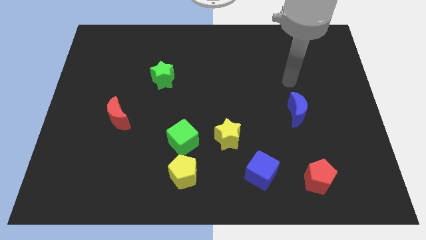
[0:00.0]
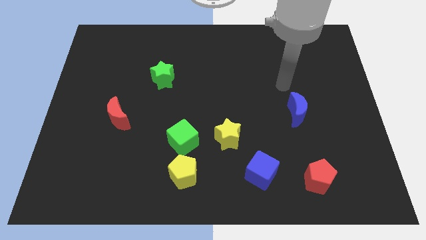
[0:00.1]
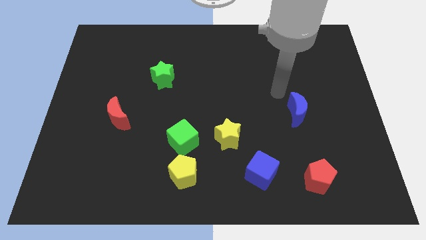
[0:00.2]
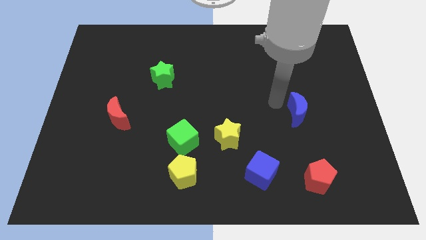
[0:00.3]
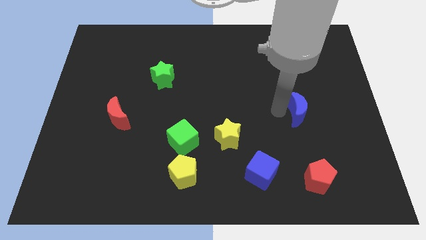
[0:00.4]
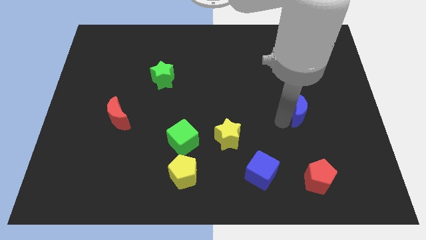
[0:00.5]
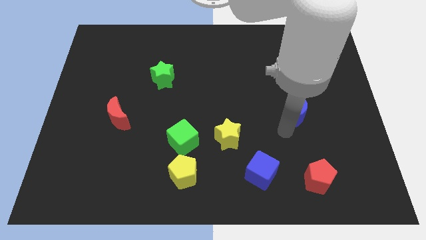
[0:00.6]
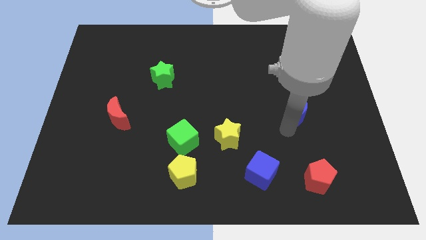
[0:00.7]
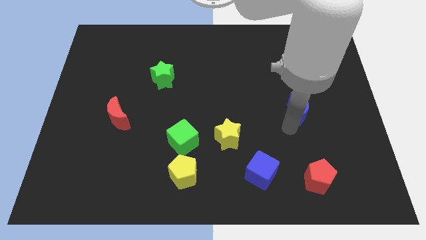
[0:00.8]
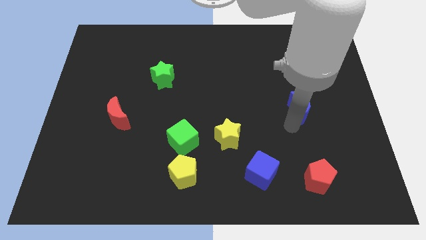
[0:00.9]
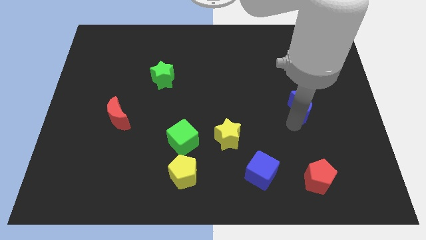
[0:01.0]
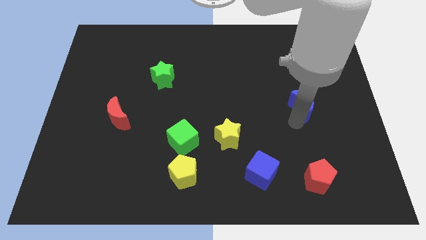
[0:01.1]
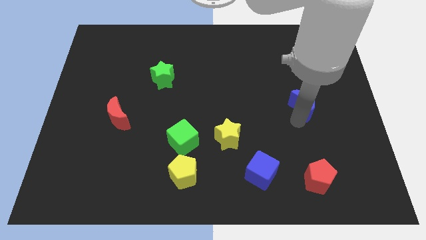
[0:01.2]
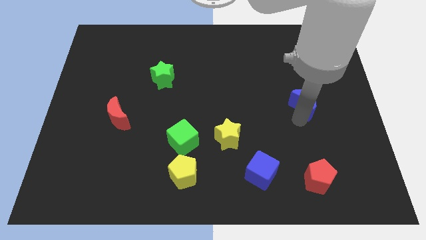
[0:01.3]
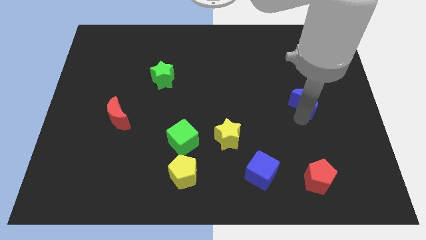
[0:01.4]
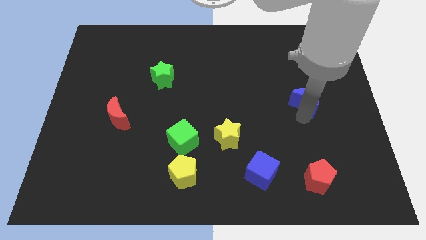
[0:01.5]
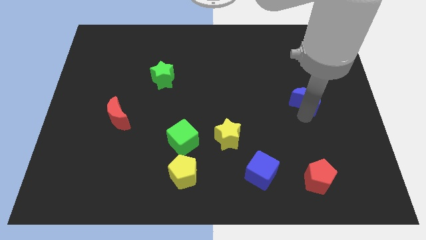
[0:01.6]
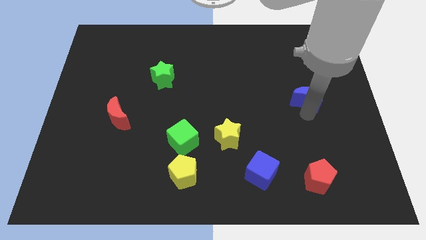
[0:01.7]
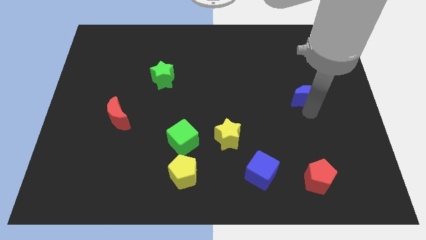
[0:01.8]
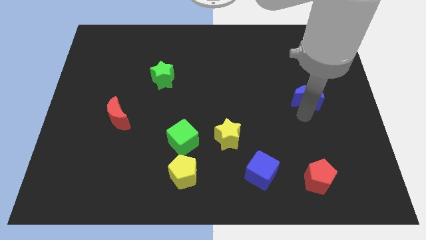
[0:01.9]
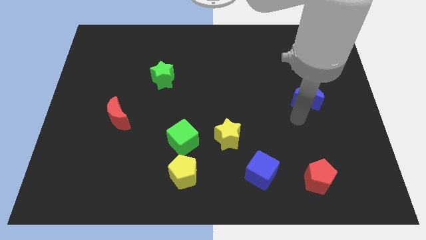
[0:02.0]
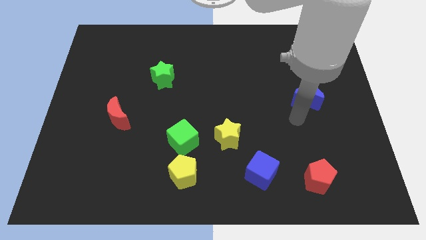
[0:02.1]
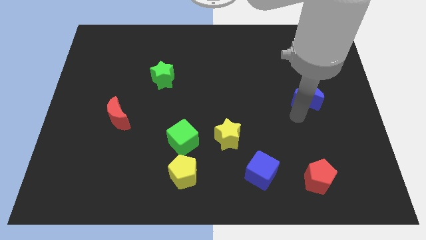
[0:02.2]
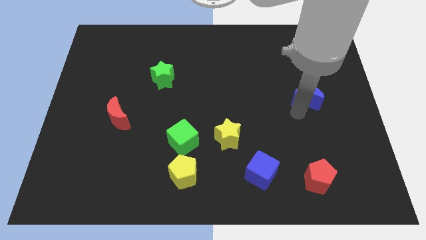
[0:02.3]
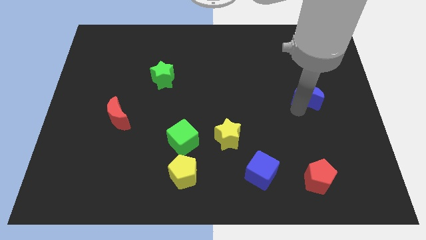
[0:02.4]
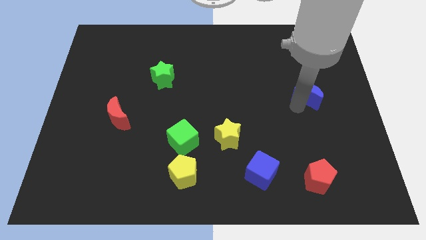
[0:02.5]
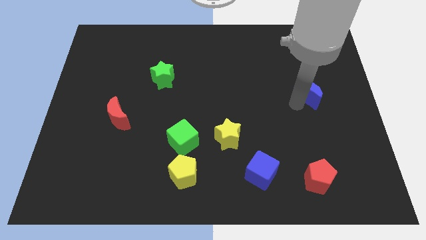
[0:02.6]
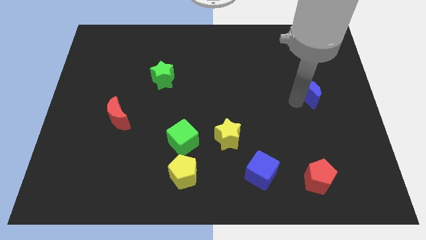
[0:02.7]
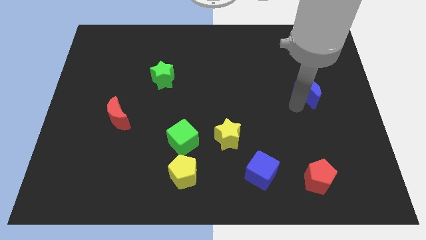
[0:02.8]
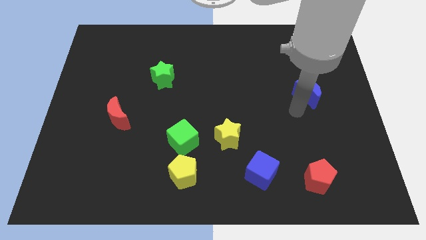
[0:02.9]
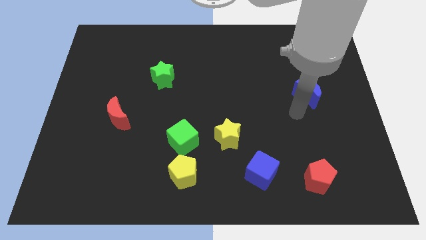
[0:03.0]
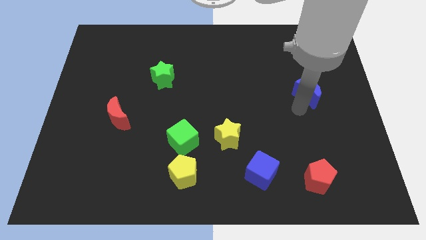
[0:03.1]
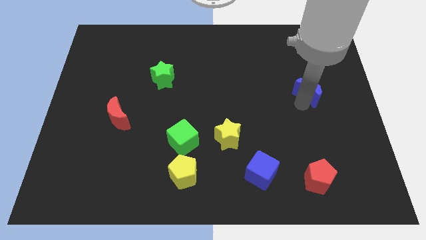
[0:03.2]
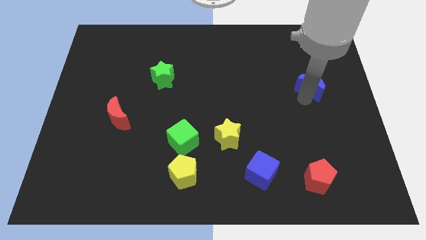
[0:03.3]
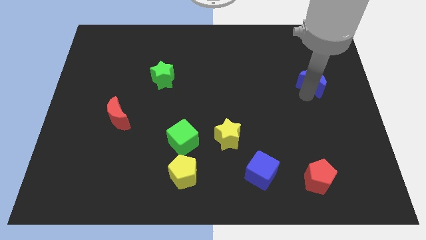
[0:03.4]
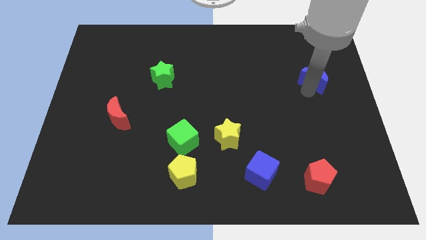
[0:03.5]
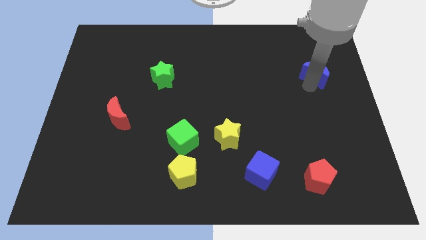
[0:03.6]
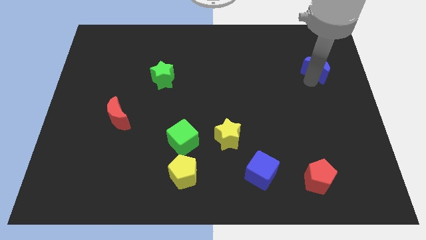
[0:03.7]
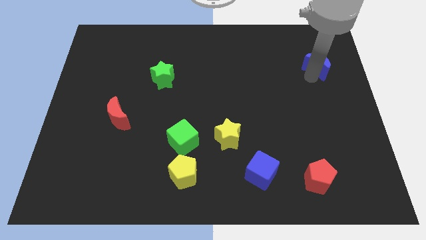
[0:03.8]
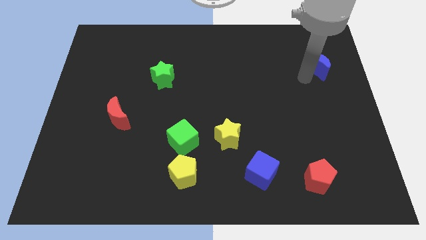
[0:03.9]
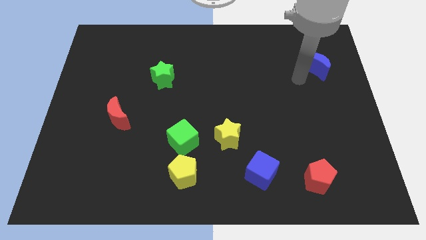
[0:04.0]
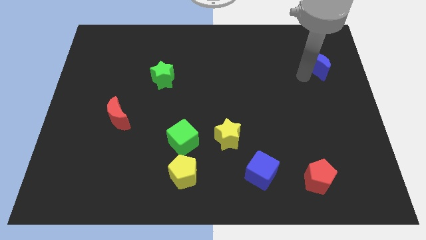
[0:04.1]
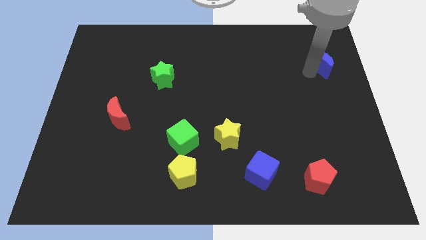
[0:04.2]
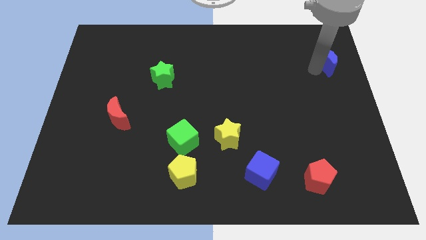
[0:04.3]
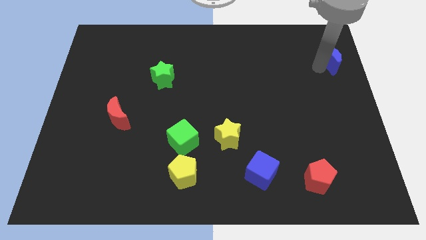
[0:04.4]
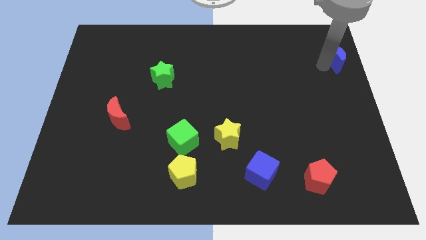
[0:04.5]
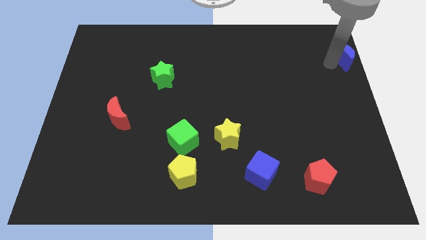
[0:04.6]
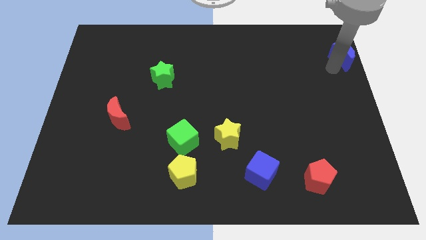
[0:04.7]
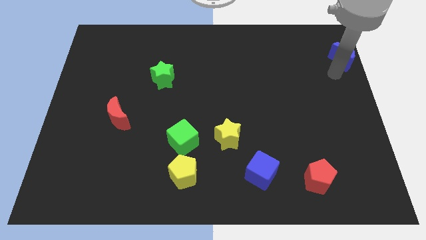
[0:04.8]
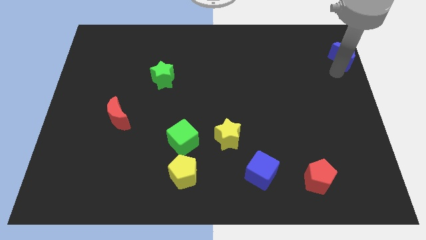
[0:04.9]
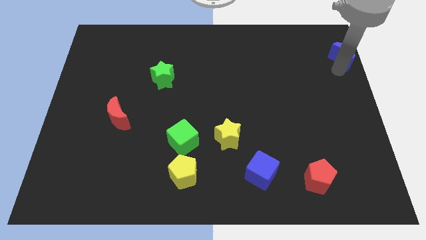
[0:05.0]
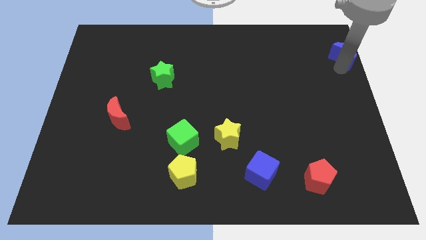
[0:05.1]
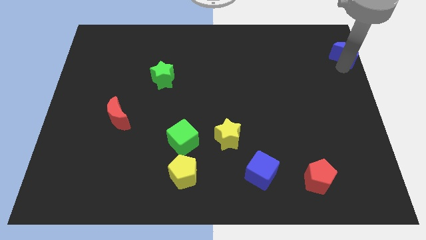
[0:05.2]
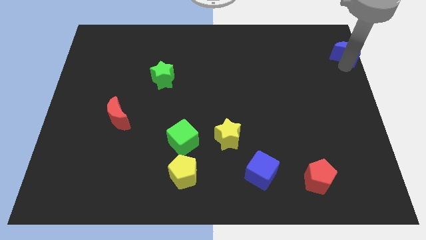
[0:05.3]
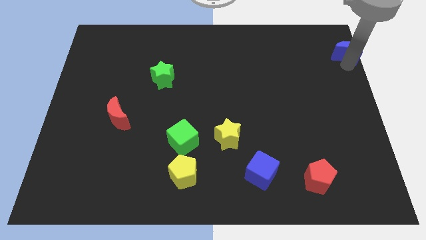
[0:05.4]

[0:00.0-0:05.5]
slide the blue moon to the top right corner

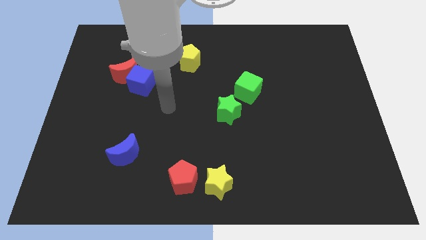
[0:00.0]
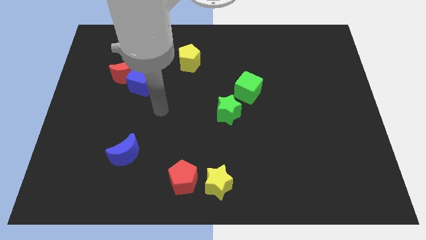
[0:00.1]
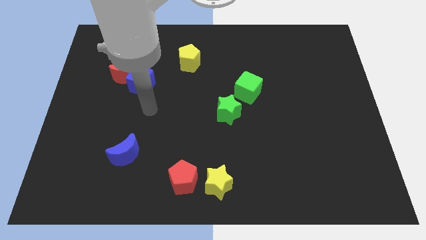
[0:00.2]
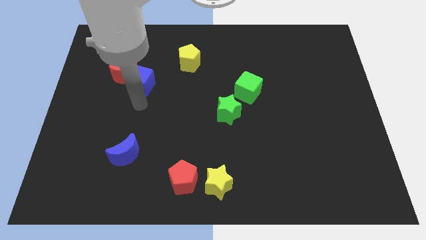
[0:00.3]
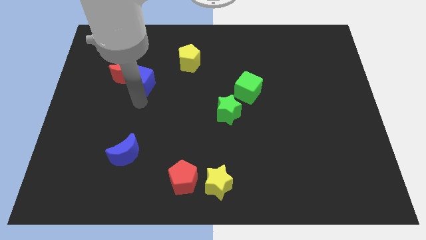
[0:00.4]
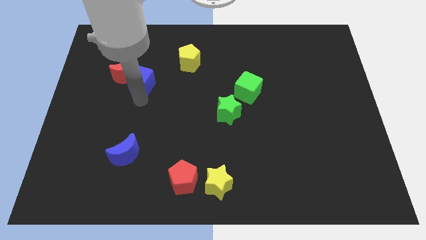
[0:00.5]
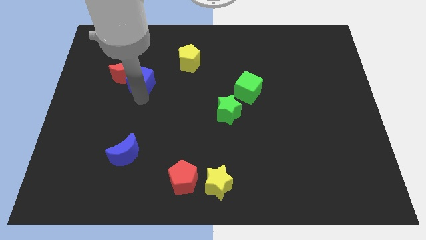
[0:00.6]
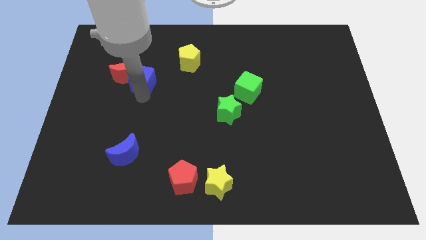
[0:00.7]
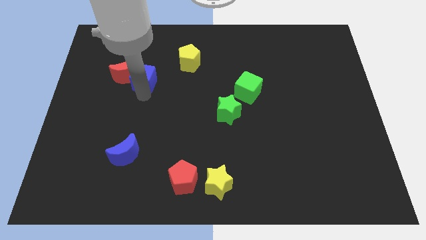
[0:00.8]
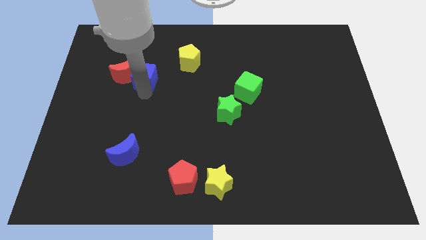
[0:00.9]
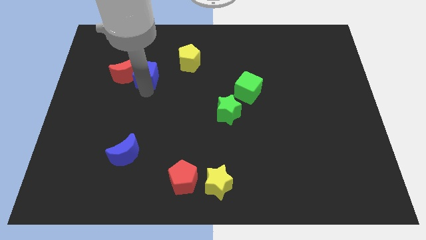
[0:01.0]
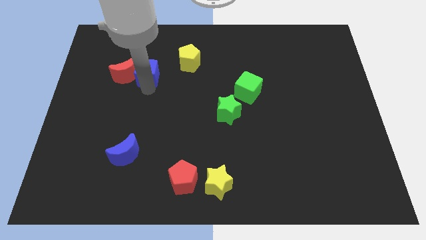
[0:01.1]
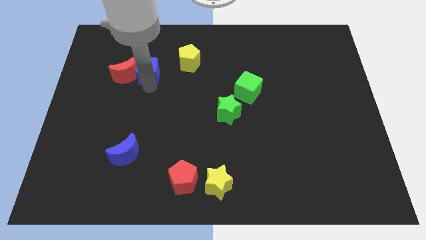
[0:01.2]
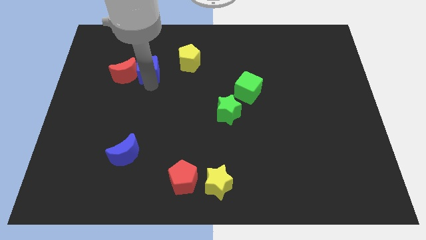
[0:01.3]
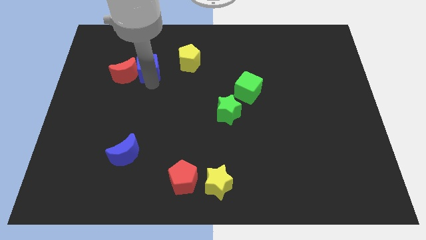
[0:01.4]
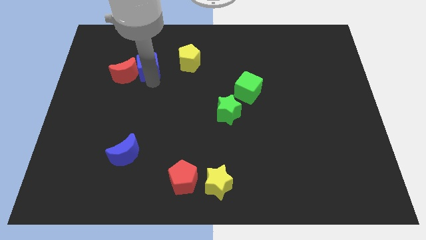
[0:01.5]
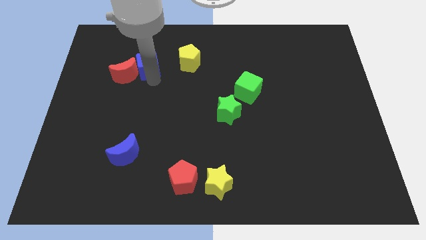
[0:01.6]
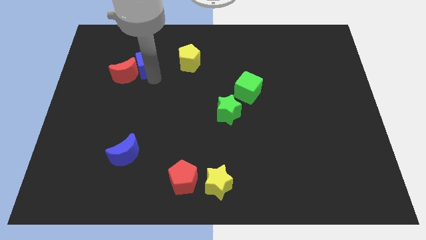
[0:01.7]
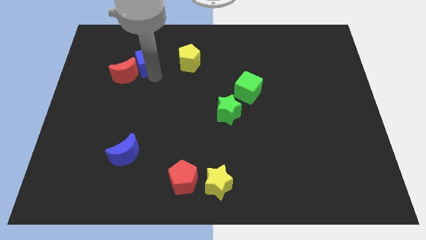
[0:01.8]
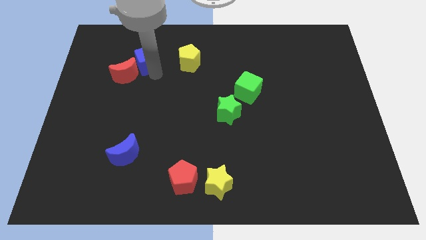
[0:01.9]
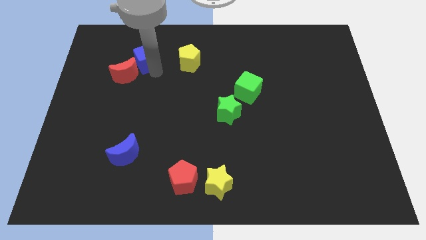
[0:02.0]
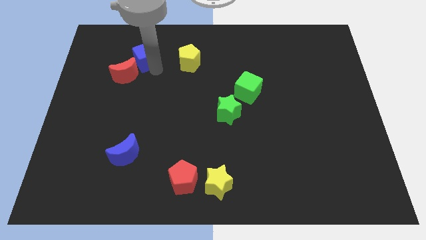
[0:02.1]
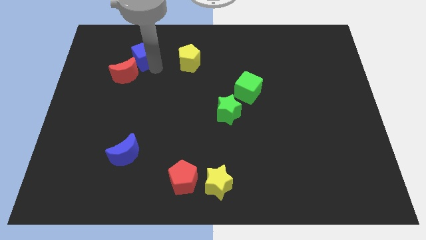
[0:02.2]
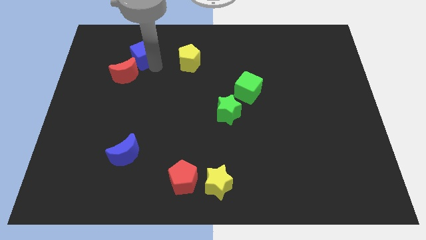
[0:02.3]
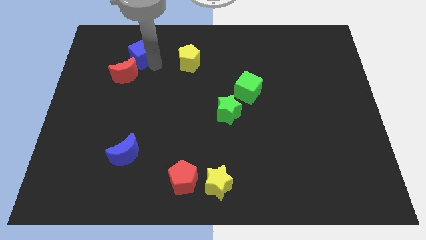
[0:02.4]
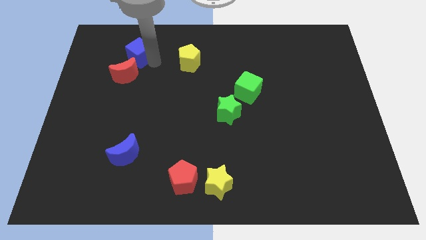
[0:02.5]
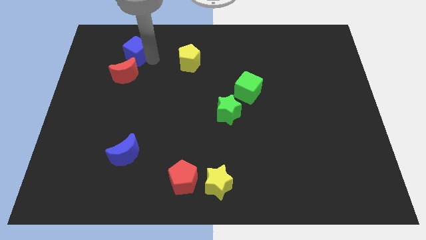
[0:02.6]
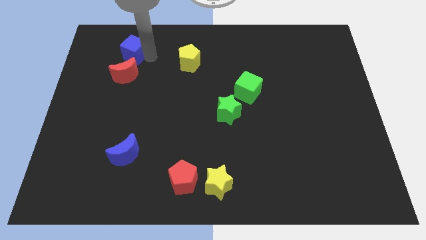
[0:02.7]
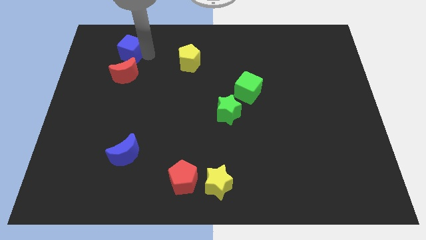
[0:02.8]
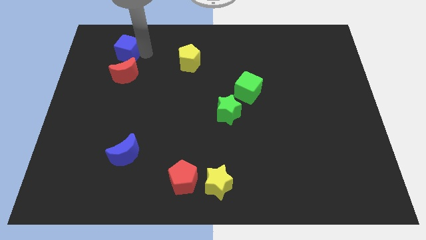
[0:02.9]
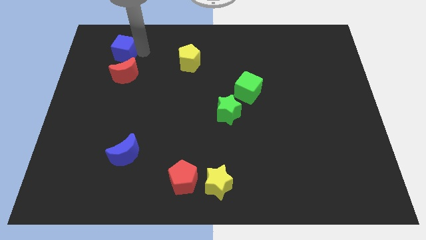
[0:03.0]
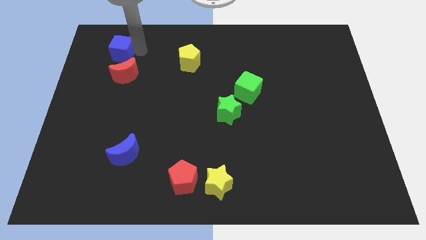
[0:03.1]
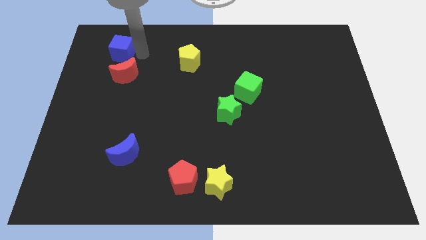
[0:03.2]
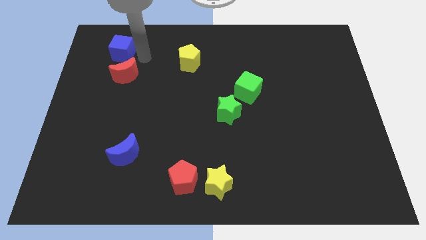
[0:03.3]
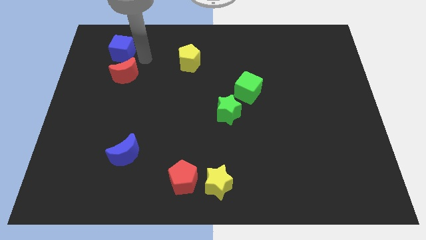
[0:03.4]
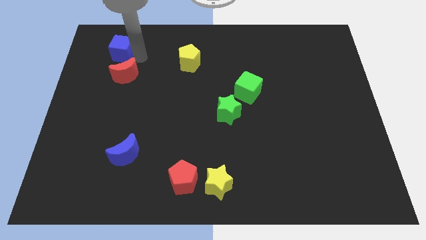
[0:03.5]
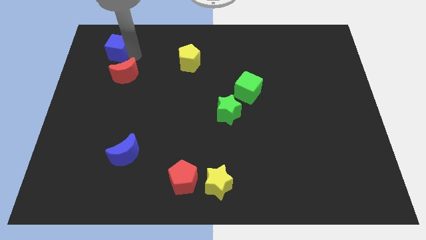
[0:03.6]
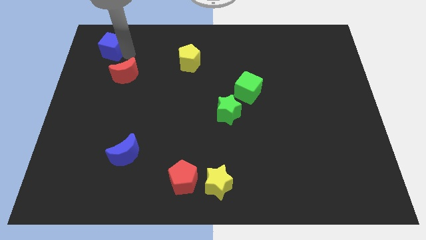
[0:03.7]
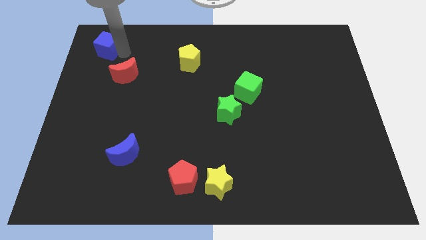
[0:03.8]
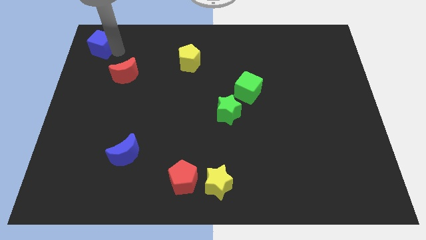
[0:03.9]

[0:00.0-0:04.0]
put the blue cube to the upper left corner
